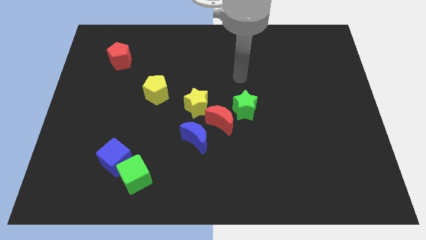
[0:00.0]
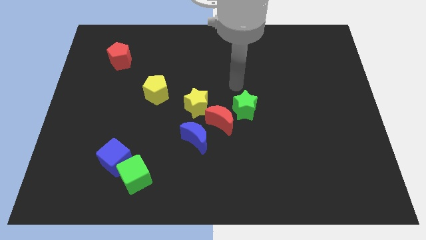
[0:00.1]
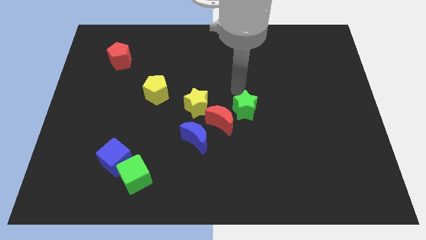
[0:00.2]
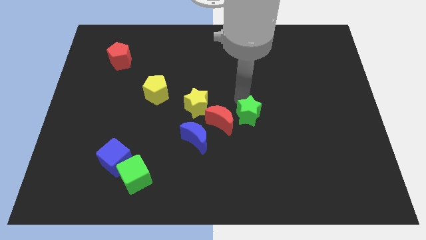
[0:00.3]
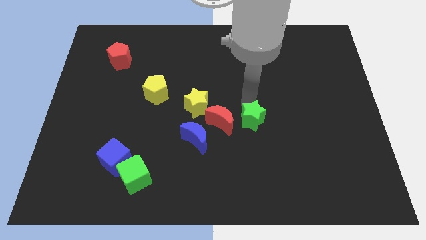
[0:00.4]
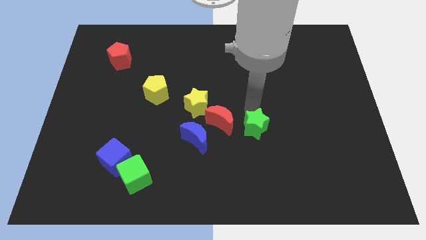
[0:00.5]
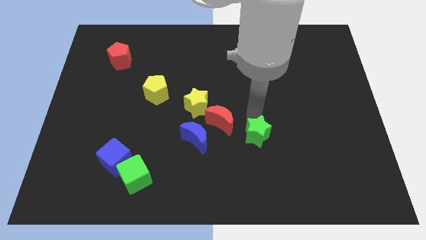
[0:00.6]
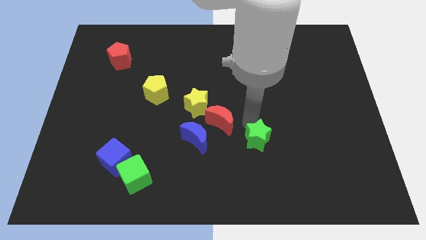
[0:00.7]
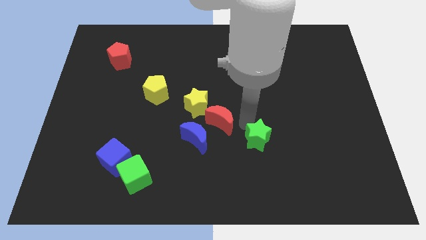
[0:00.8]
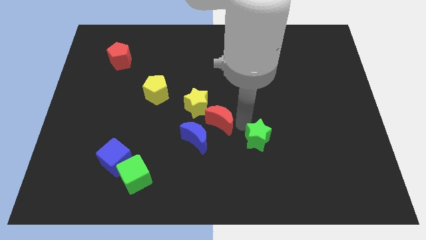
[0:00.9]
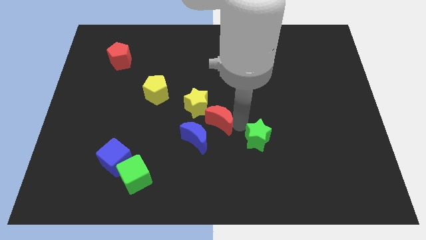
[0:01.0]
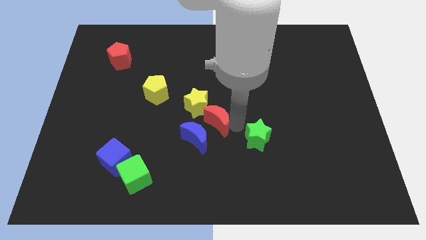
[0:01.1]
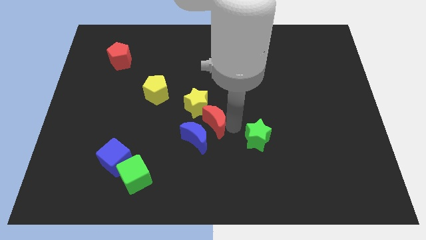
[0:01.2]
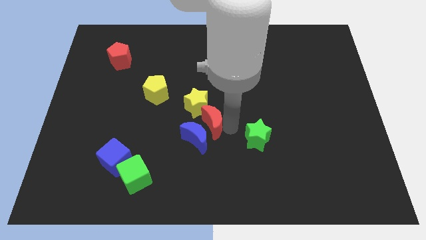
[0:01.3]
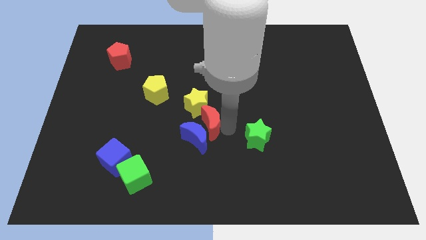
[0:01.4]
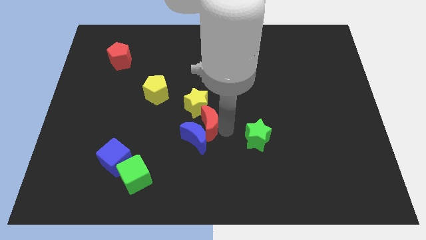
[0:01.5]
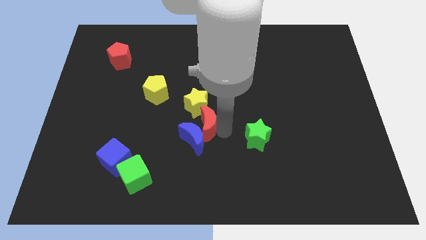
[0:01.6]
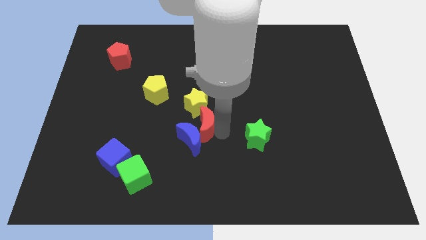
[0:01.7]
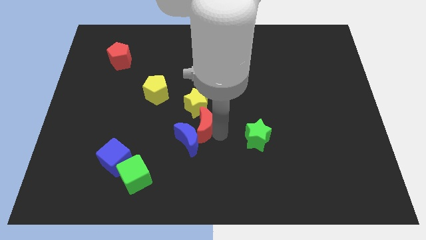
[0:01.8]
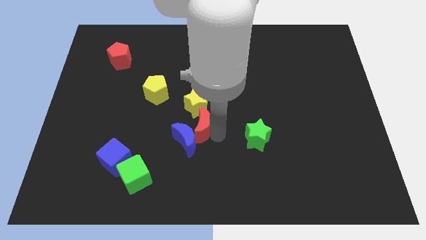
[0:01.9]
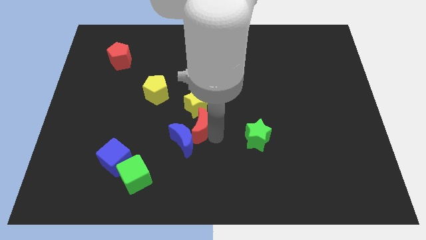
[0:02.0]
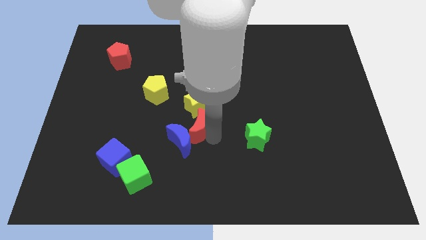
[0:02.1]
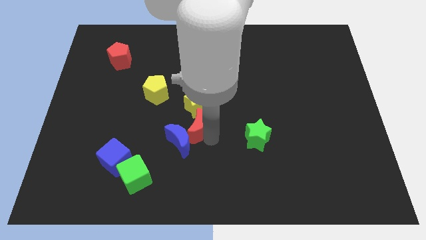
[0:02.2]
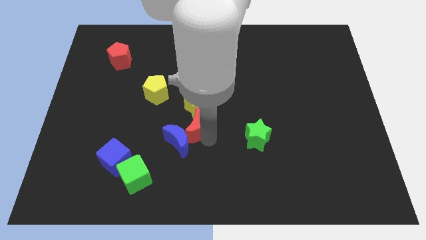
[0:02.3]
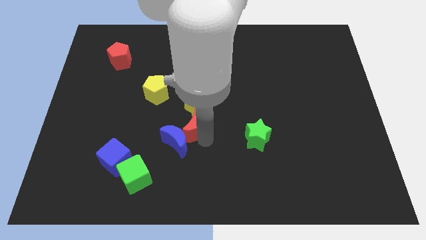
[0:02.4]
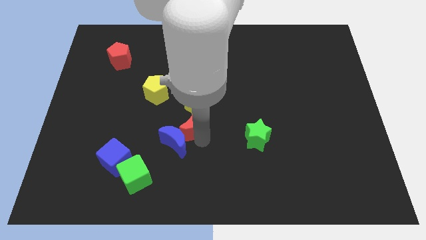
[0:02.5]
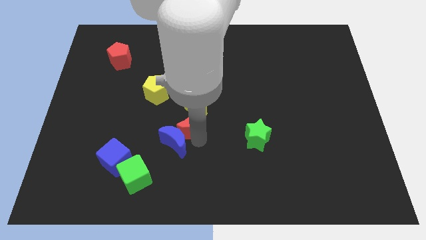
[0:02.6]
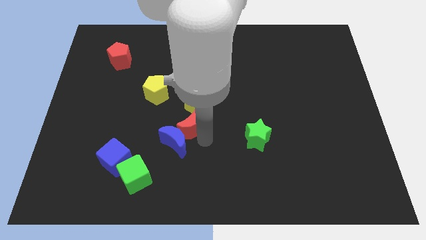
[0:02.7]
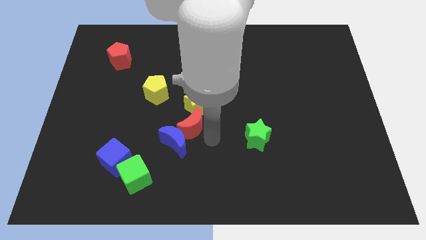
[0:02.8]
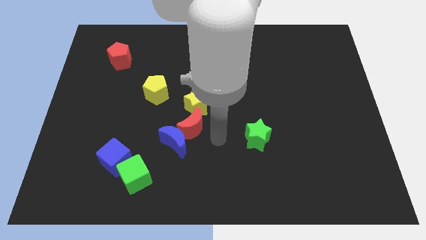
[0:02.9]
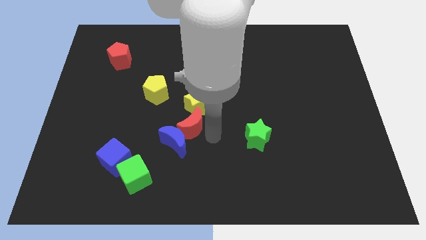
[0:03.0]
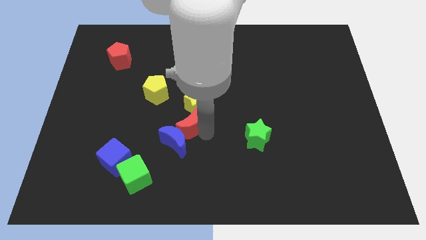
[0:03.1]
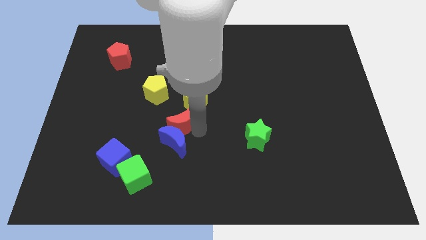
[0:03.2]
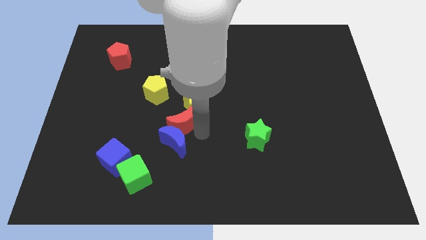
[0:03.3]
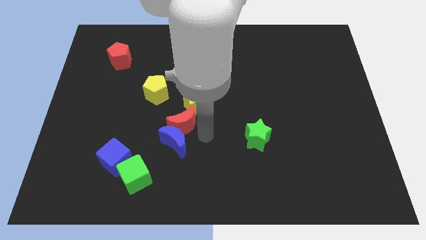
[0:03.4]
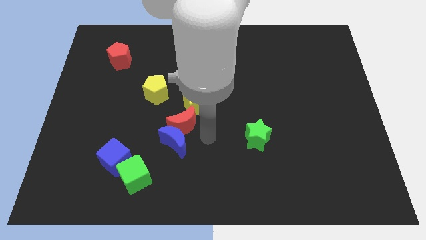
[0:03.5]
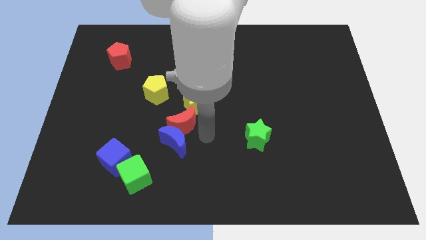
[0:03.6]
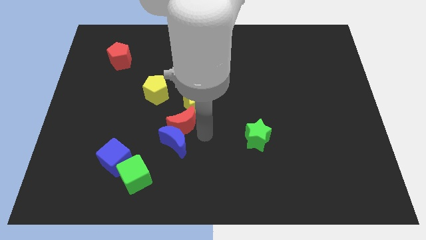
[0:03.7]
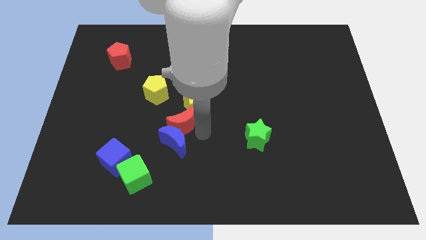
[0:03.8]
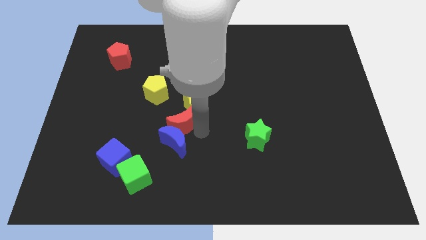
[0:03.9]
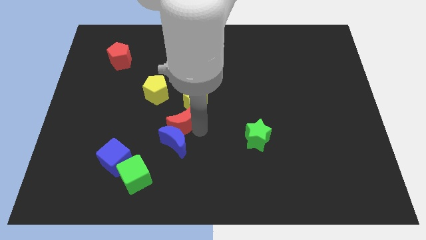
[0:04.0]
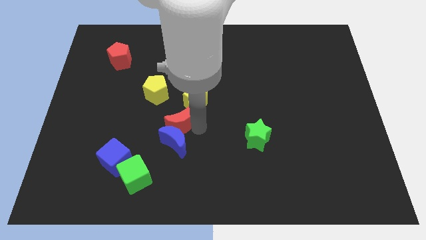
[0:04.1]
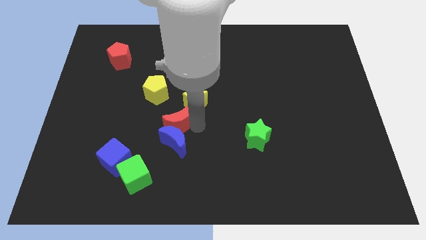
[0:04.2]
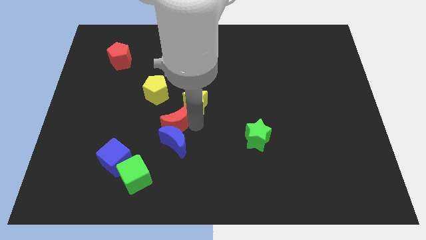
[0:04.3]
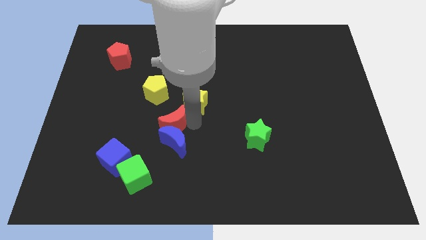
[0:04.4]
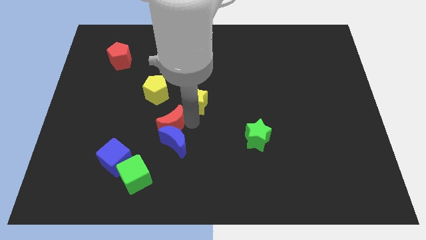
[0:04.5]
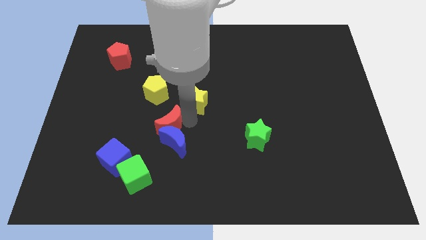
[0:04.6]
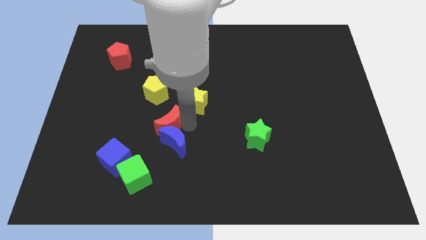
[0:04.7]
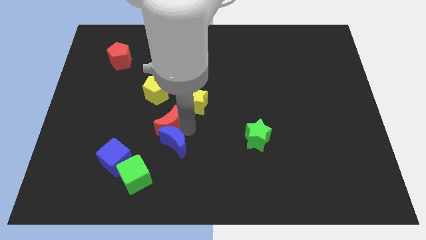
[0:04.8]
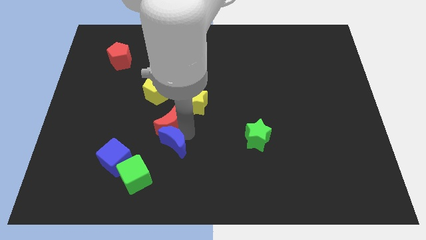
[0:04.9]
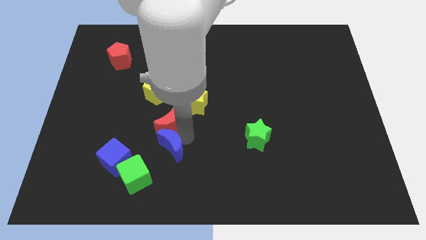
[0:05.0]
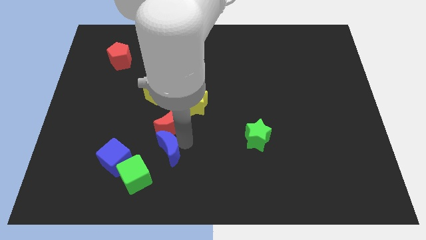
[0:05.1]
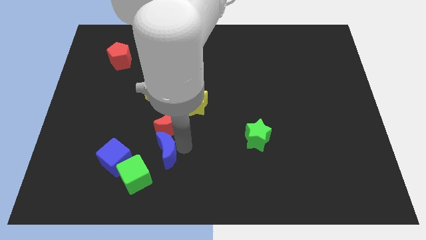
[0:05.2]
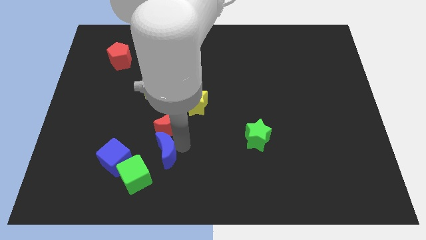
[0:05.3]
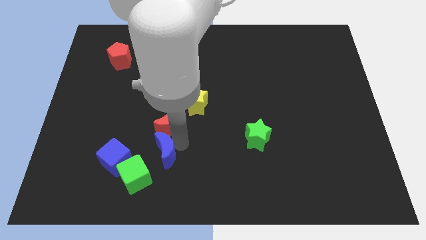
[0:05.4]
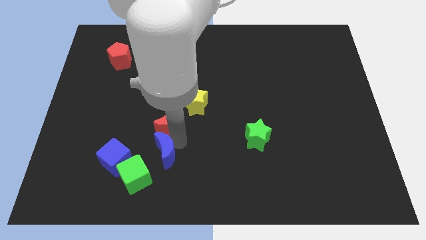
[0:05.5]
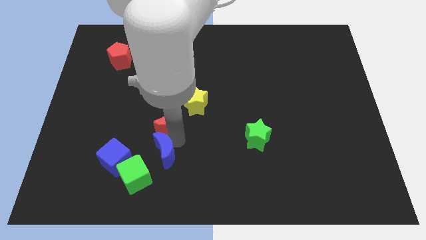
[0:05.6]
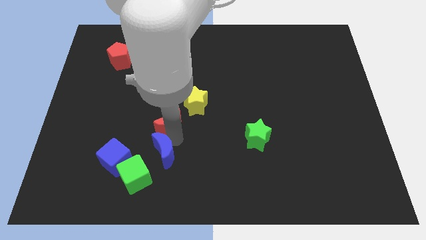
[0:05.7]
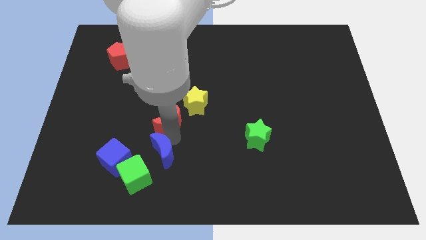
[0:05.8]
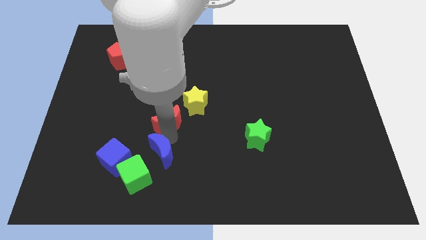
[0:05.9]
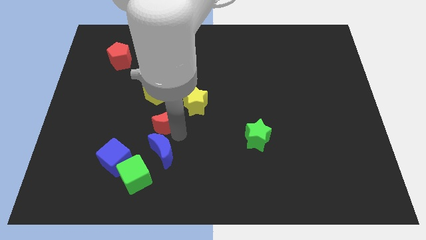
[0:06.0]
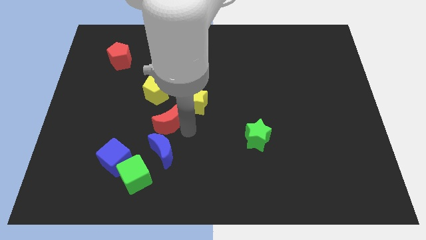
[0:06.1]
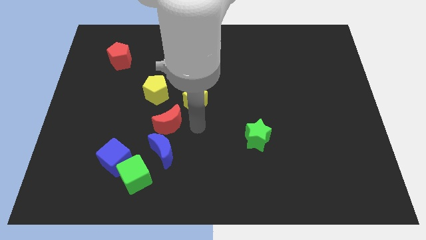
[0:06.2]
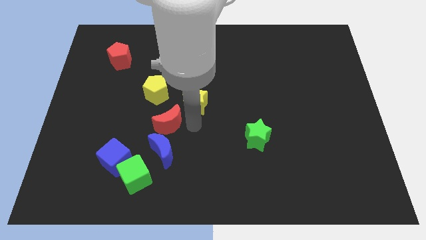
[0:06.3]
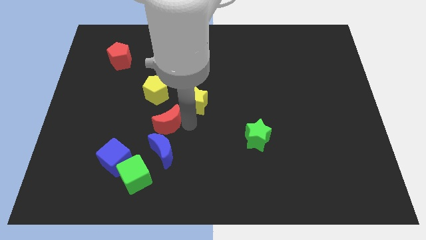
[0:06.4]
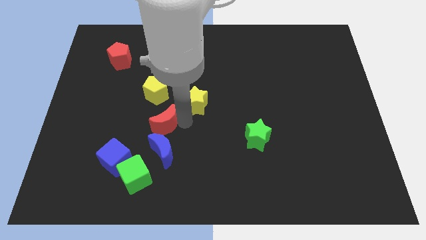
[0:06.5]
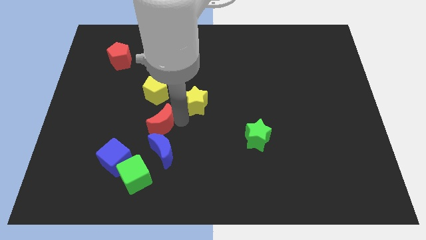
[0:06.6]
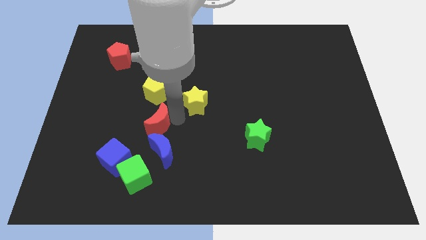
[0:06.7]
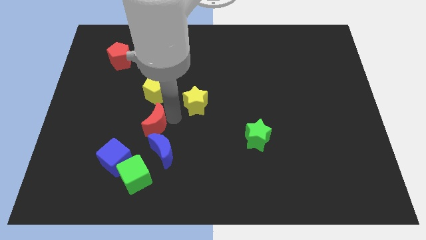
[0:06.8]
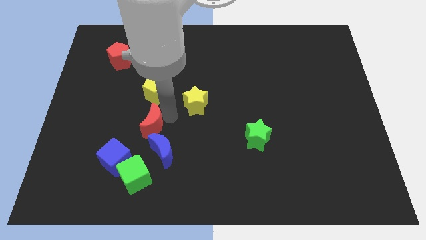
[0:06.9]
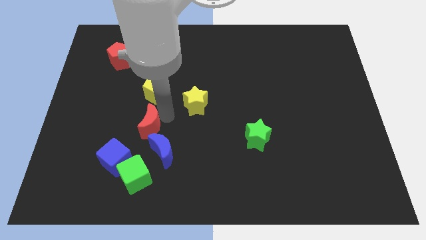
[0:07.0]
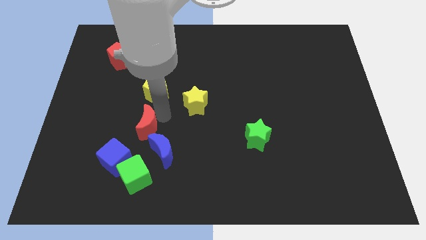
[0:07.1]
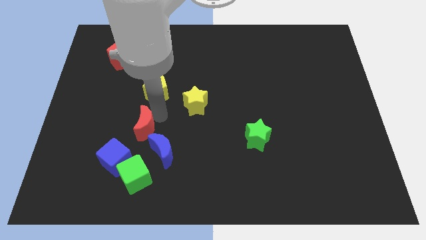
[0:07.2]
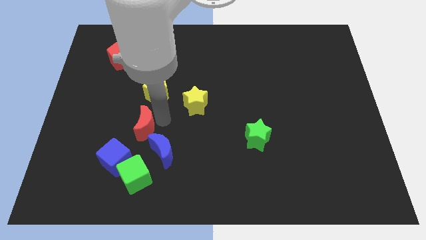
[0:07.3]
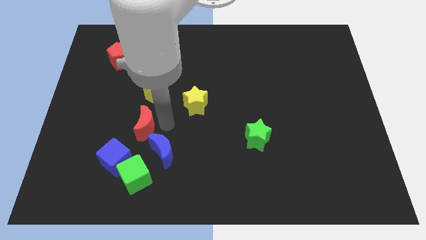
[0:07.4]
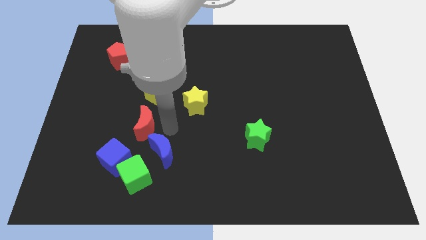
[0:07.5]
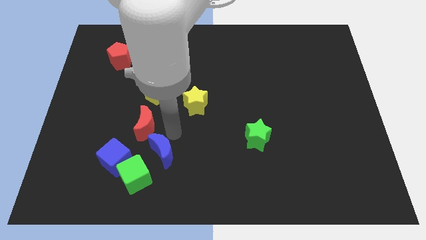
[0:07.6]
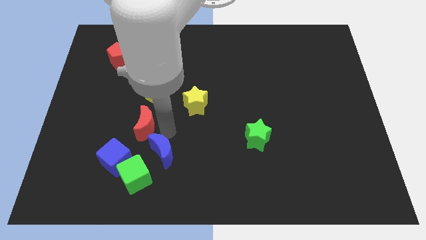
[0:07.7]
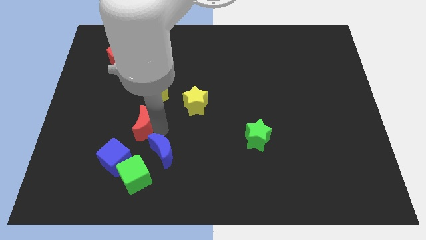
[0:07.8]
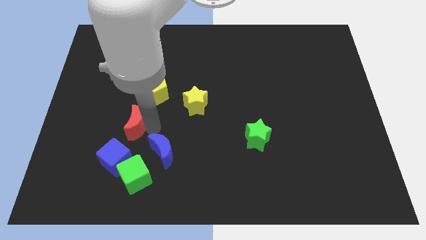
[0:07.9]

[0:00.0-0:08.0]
put the red moon to the top side of the blue cube

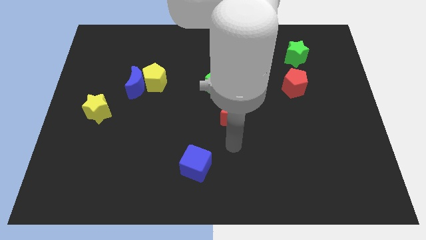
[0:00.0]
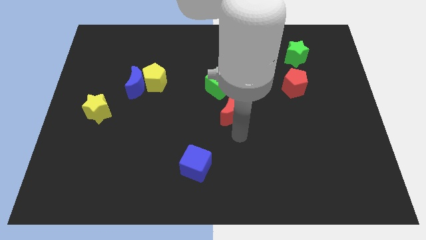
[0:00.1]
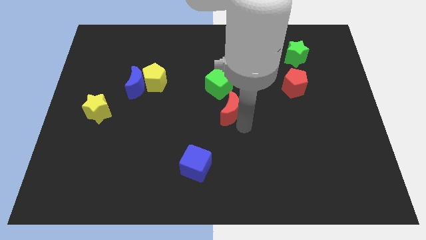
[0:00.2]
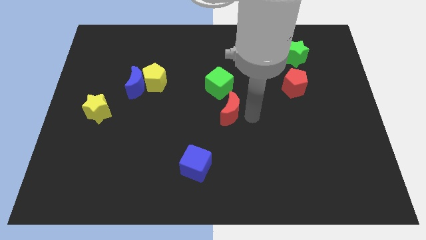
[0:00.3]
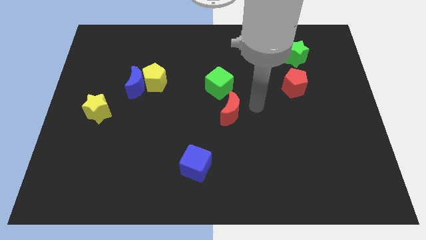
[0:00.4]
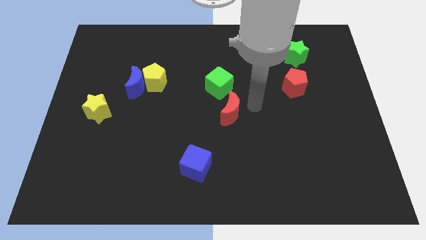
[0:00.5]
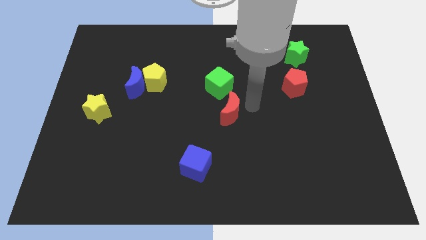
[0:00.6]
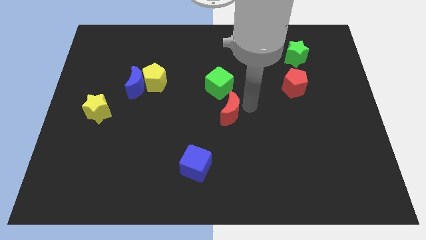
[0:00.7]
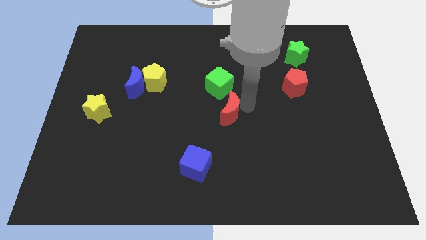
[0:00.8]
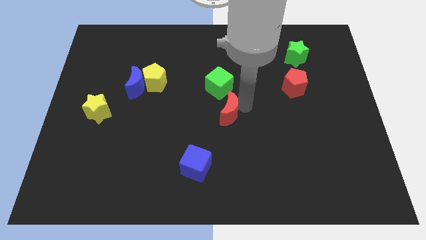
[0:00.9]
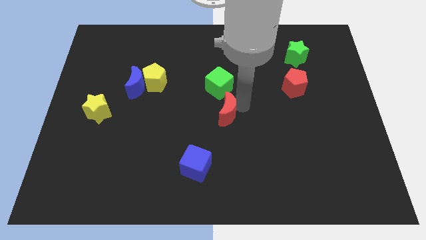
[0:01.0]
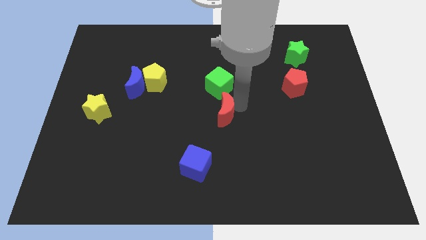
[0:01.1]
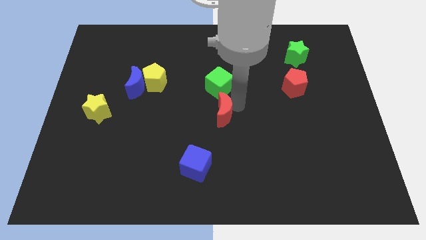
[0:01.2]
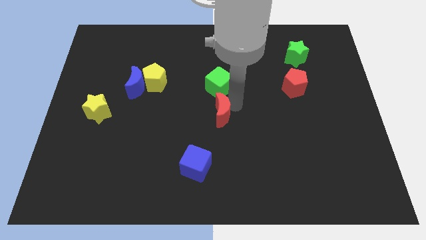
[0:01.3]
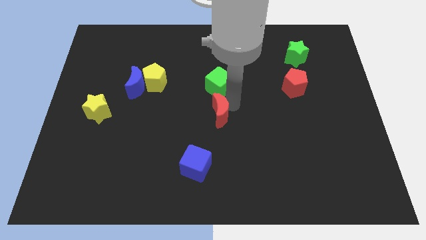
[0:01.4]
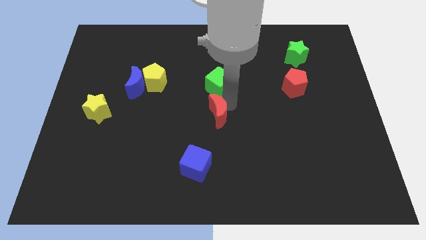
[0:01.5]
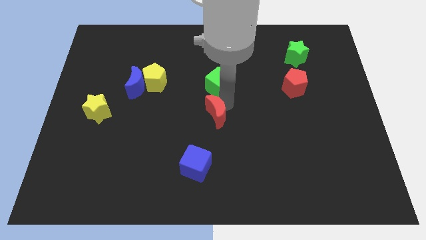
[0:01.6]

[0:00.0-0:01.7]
slide the red moon to the top of the blue cube
